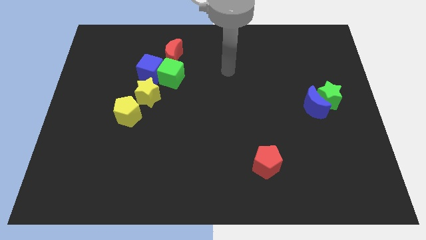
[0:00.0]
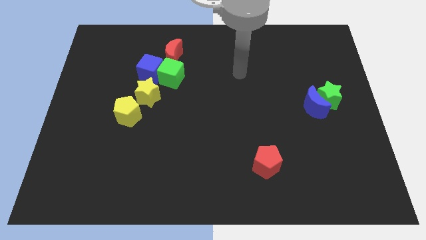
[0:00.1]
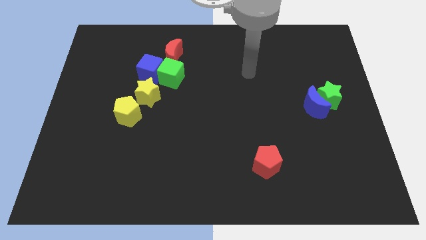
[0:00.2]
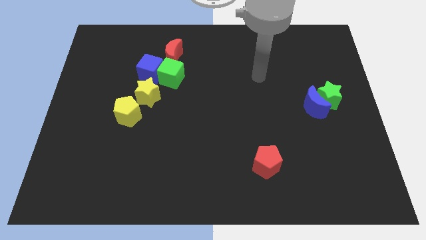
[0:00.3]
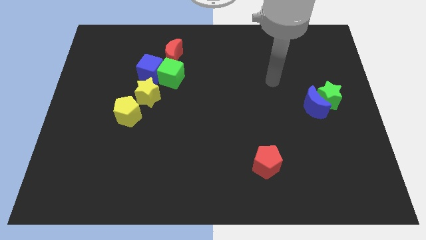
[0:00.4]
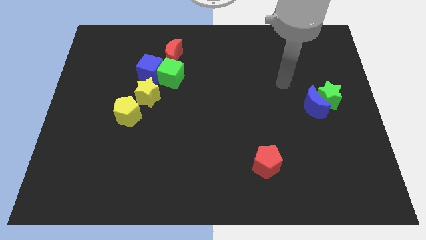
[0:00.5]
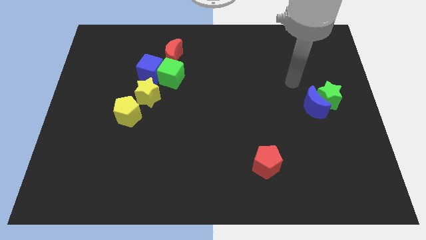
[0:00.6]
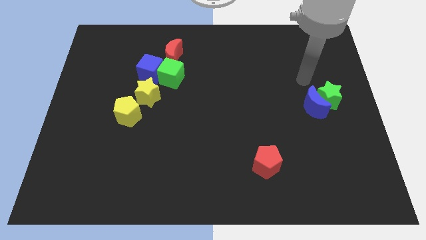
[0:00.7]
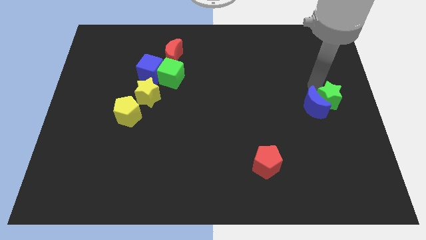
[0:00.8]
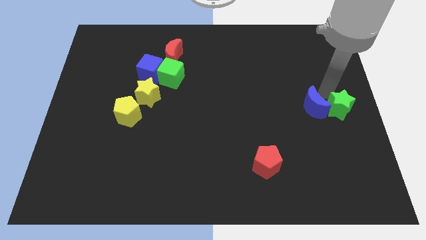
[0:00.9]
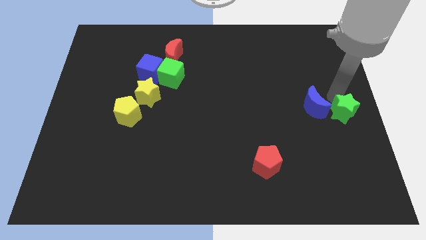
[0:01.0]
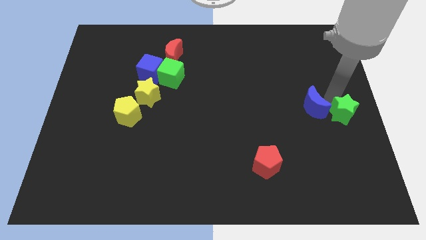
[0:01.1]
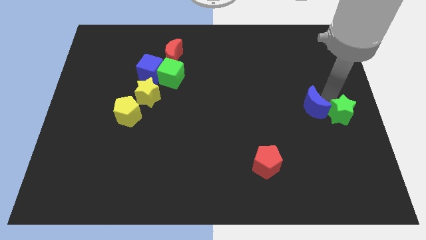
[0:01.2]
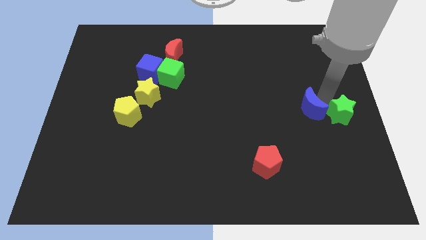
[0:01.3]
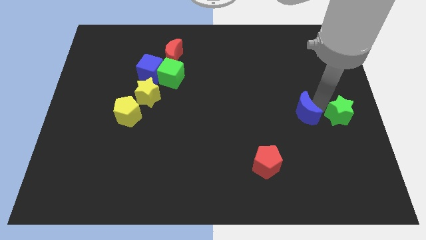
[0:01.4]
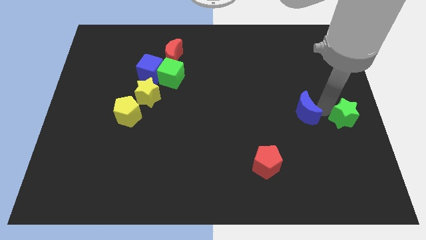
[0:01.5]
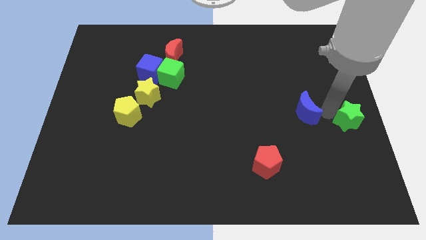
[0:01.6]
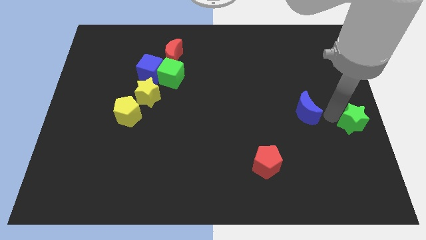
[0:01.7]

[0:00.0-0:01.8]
move the blue moon away from the green star

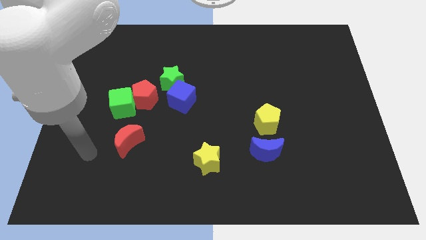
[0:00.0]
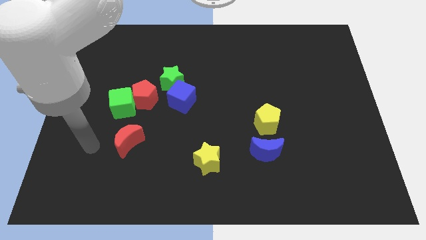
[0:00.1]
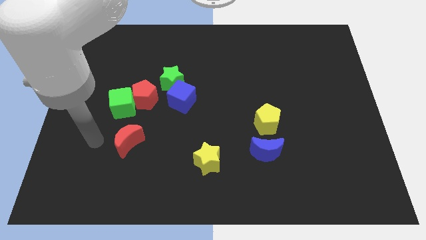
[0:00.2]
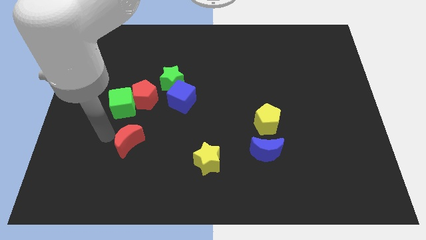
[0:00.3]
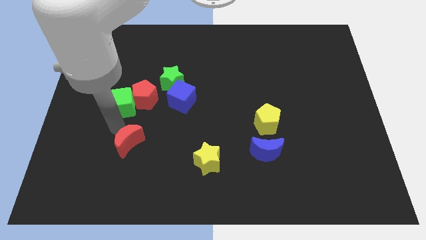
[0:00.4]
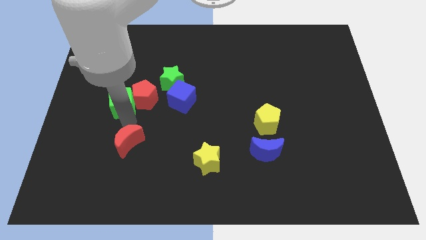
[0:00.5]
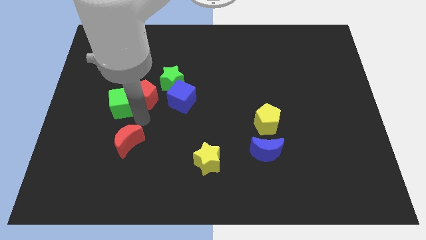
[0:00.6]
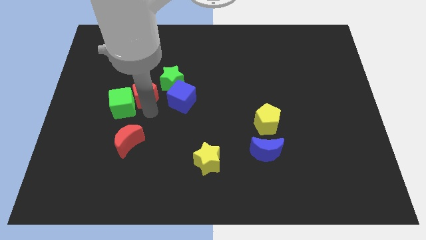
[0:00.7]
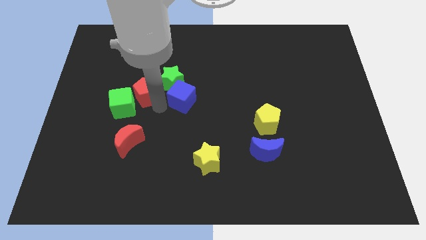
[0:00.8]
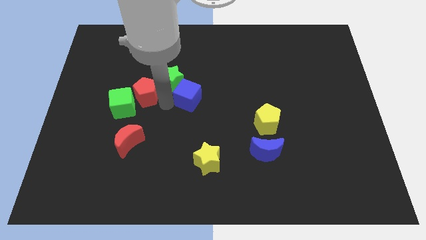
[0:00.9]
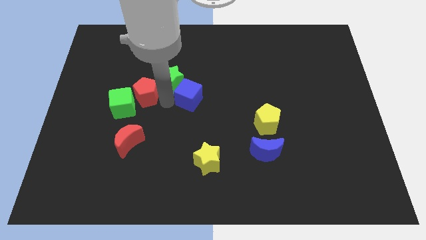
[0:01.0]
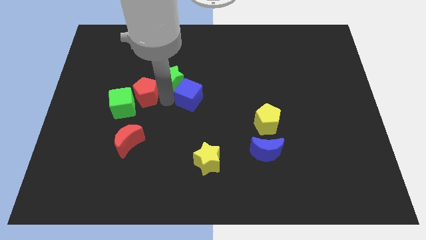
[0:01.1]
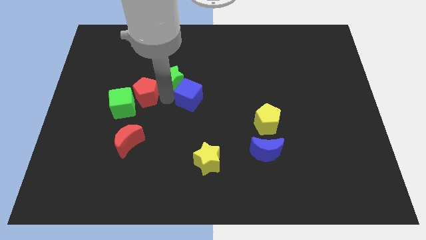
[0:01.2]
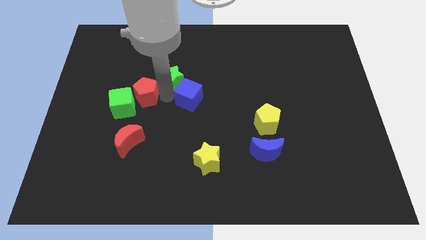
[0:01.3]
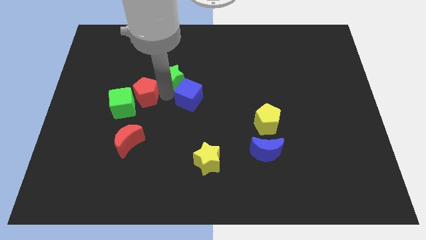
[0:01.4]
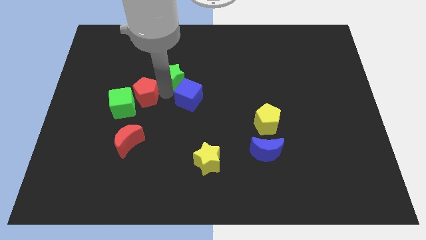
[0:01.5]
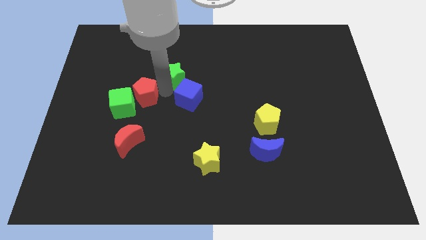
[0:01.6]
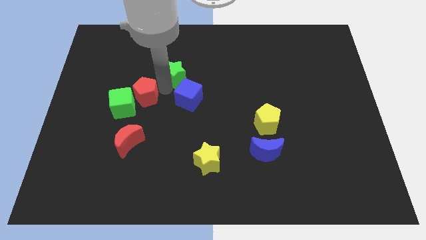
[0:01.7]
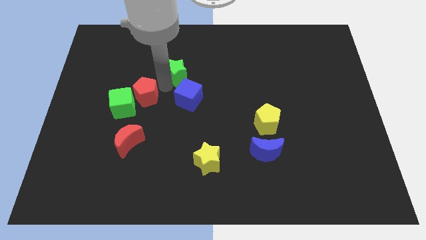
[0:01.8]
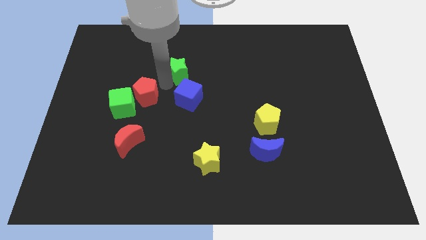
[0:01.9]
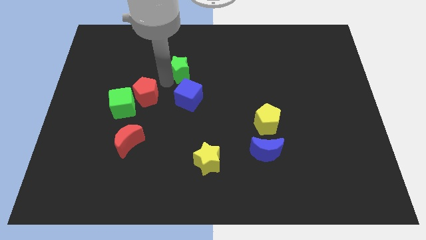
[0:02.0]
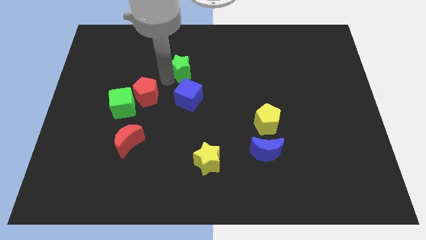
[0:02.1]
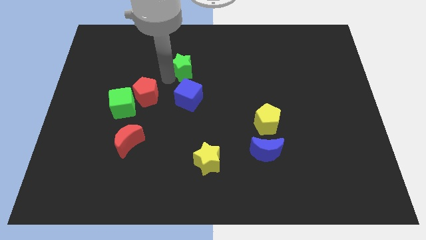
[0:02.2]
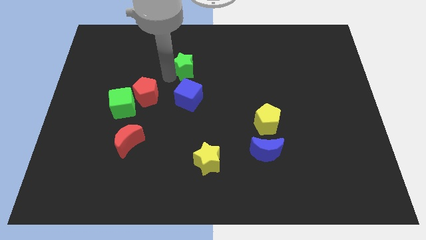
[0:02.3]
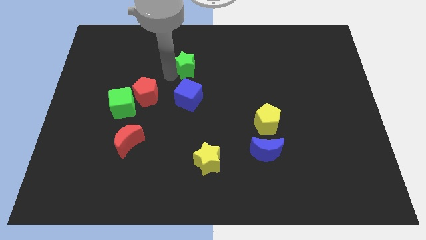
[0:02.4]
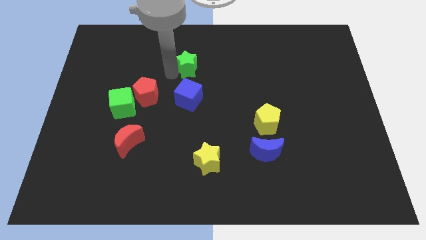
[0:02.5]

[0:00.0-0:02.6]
pull the green star apart from the blue cube and red pentagon

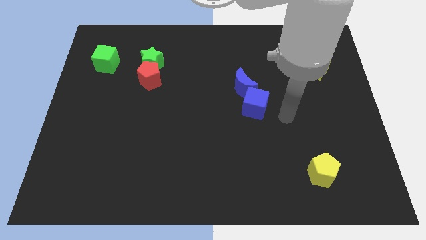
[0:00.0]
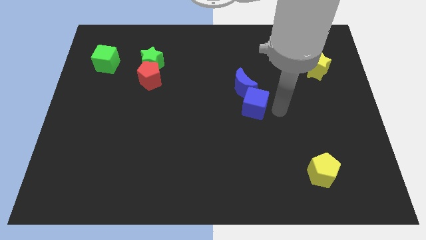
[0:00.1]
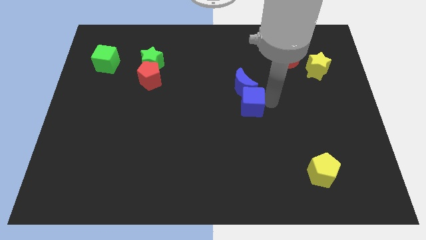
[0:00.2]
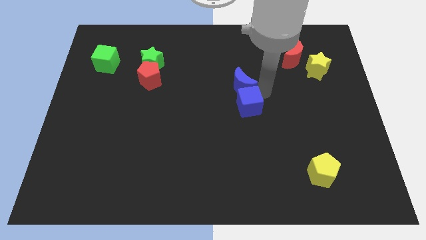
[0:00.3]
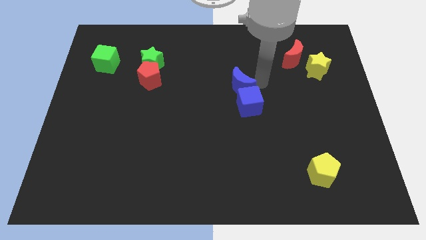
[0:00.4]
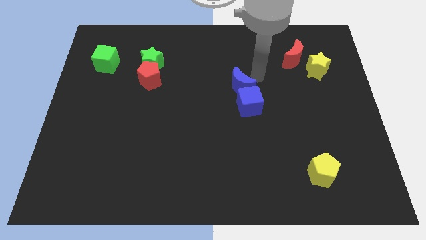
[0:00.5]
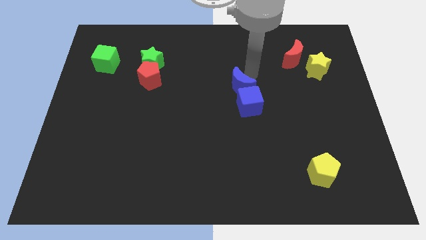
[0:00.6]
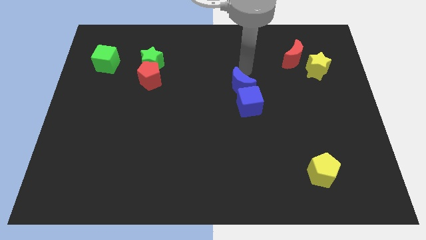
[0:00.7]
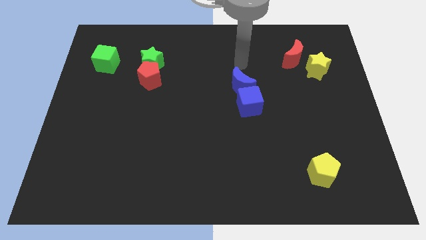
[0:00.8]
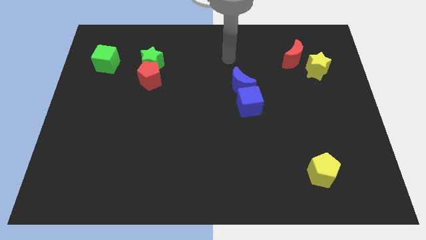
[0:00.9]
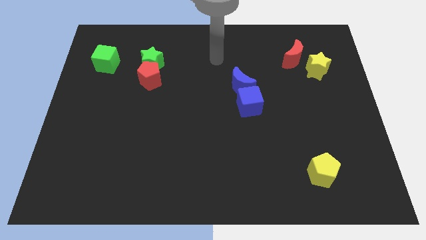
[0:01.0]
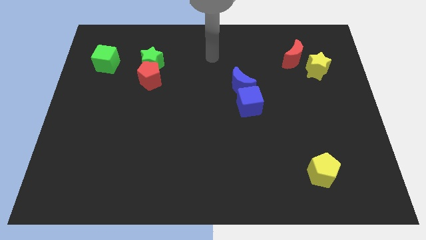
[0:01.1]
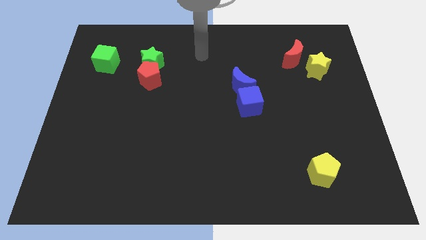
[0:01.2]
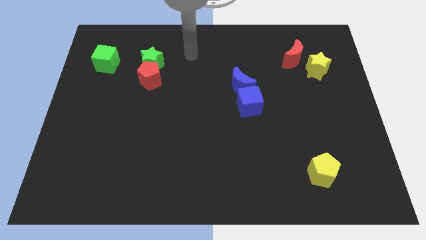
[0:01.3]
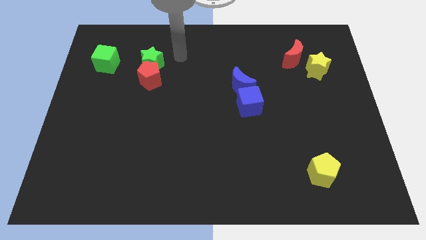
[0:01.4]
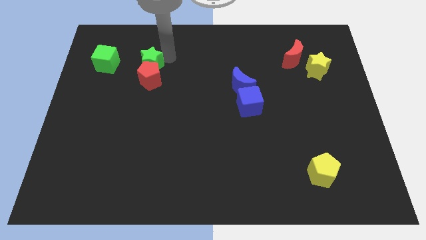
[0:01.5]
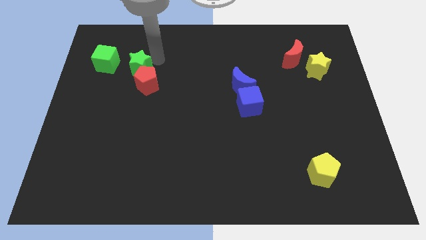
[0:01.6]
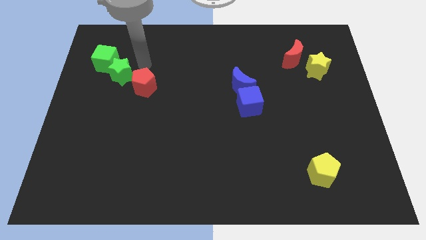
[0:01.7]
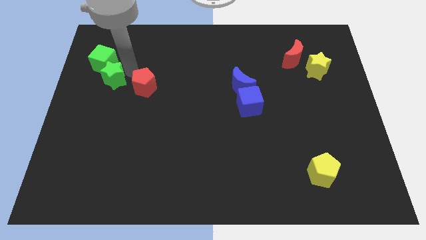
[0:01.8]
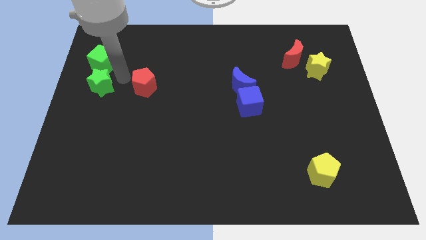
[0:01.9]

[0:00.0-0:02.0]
move the red pentagon away from the green star

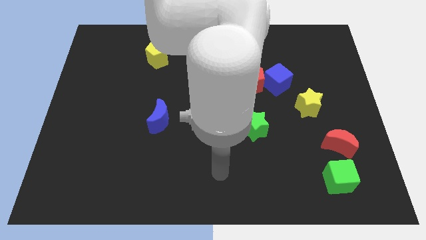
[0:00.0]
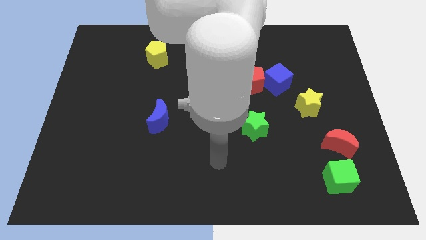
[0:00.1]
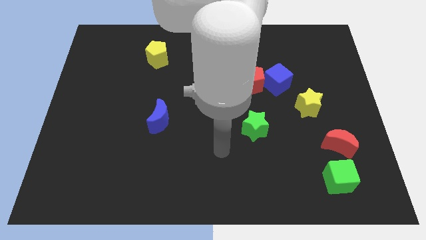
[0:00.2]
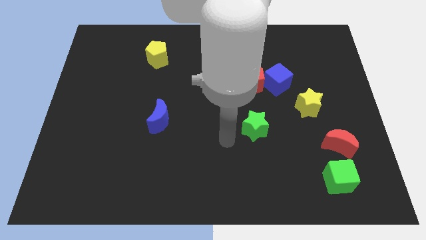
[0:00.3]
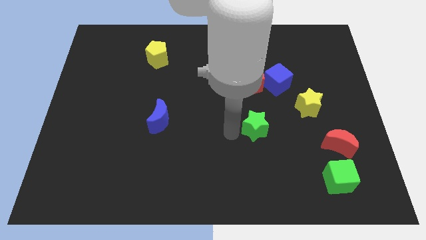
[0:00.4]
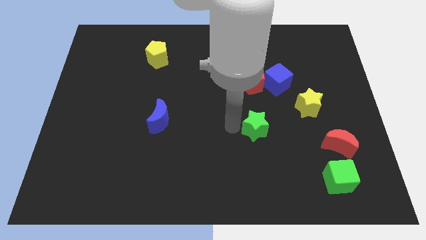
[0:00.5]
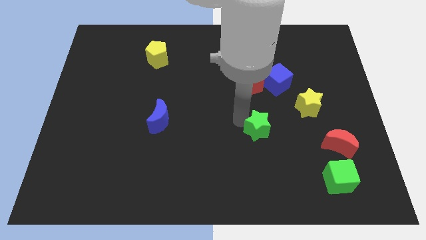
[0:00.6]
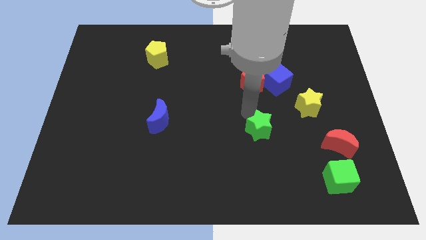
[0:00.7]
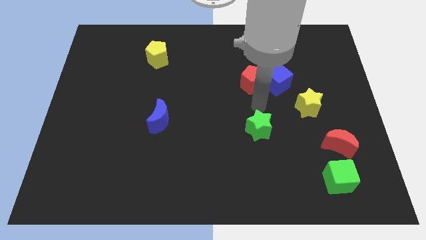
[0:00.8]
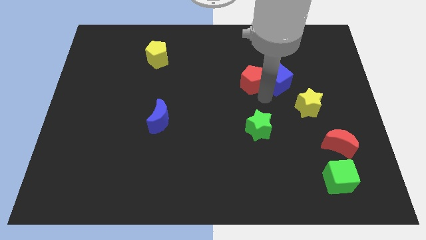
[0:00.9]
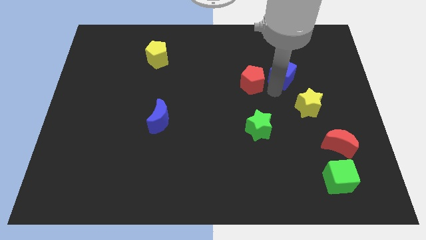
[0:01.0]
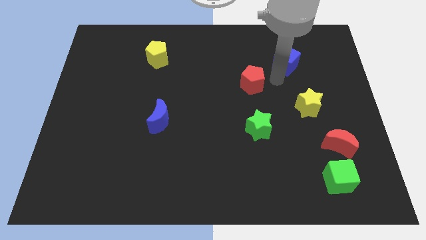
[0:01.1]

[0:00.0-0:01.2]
separate the red pentagon from the blue cube

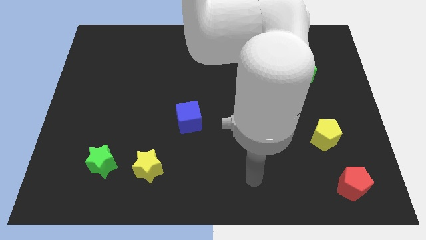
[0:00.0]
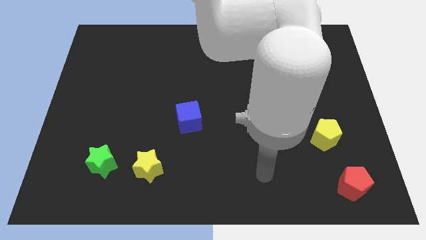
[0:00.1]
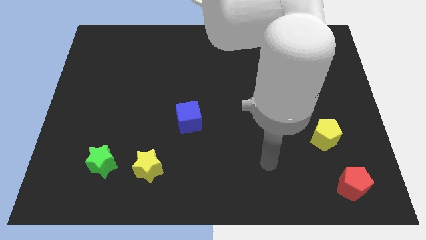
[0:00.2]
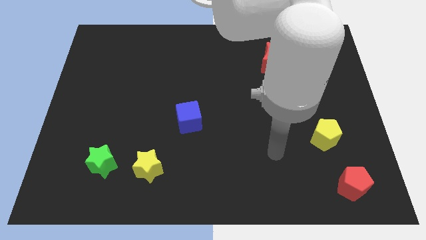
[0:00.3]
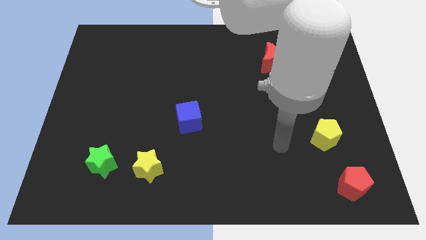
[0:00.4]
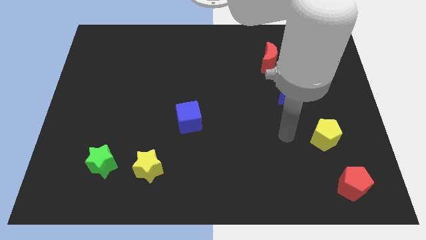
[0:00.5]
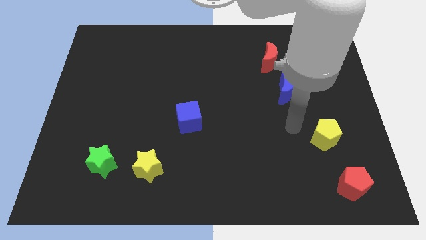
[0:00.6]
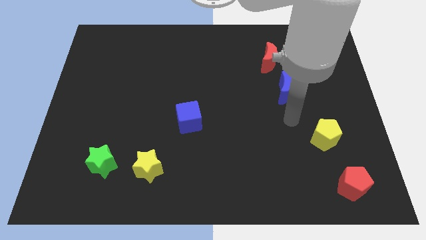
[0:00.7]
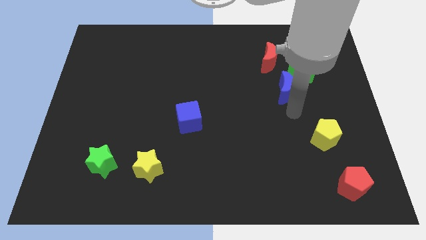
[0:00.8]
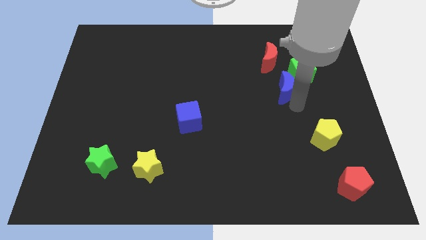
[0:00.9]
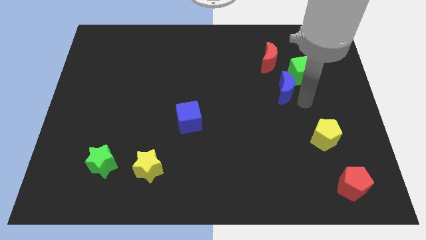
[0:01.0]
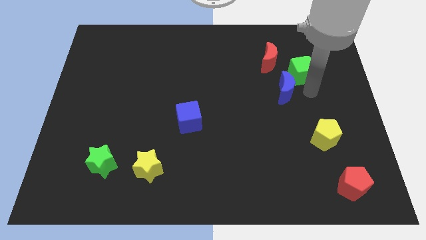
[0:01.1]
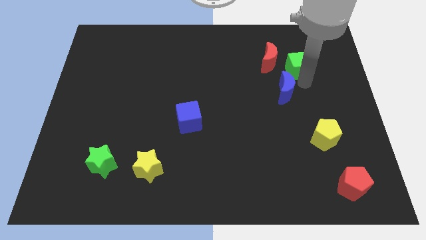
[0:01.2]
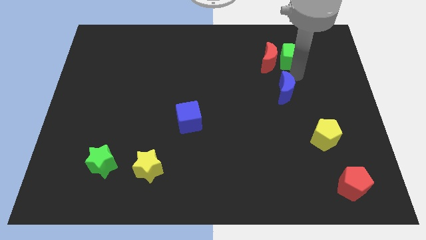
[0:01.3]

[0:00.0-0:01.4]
separate the blue moon from the green cube

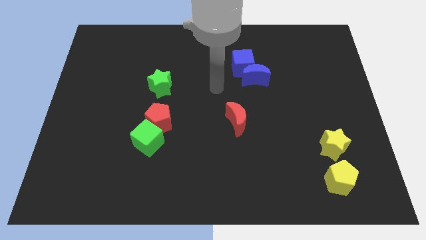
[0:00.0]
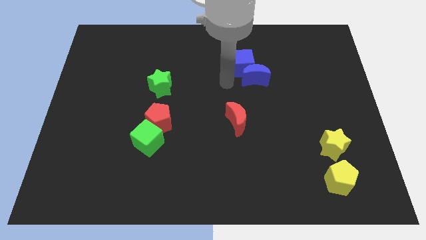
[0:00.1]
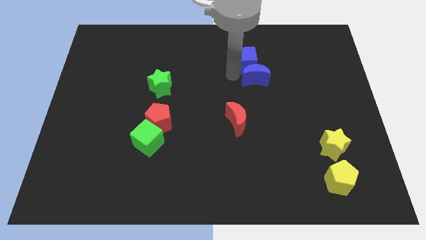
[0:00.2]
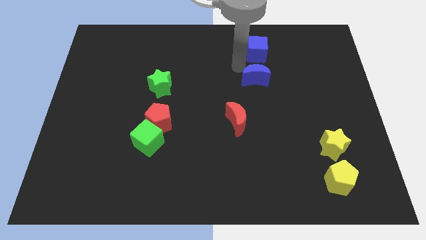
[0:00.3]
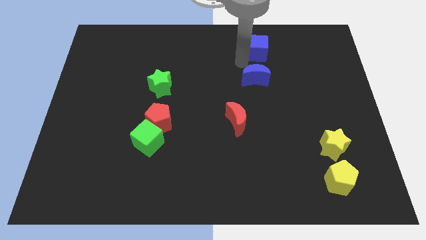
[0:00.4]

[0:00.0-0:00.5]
move the blue moon away from the blue cube
